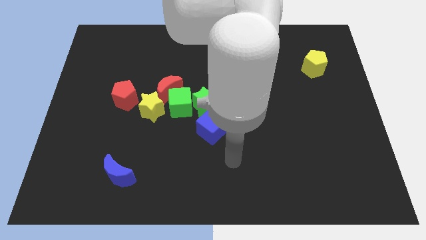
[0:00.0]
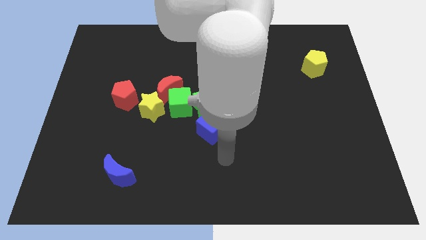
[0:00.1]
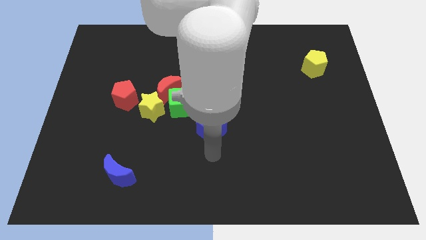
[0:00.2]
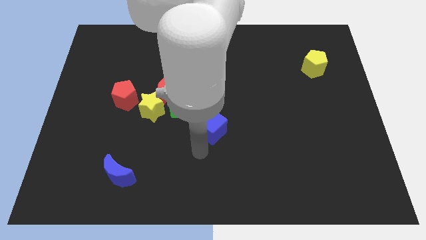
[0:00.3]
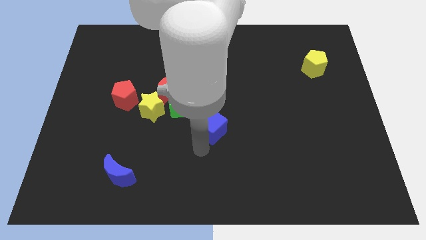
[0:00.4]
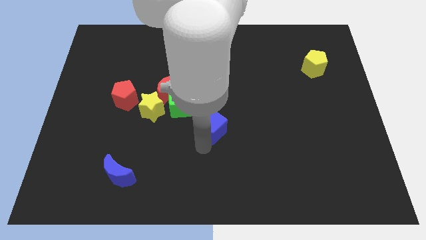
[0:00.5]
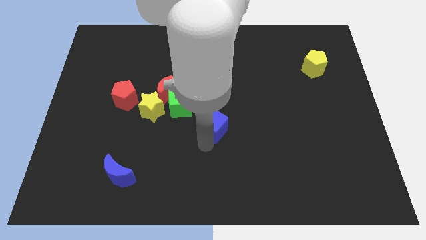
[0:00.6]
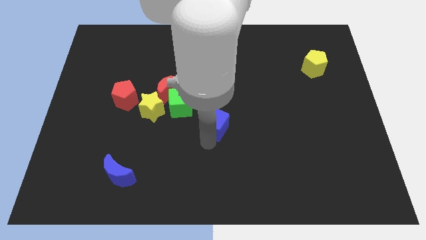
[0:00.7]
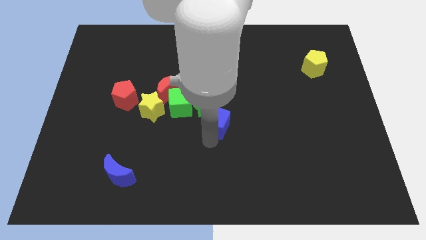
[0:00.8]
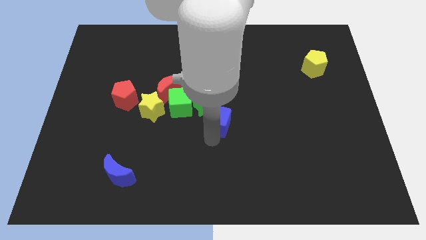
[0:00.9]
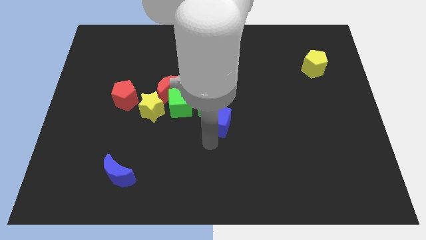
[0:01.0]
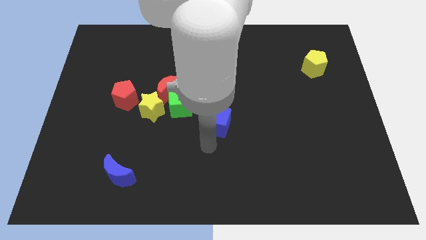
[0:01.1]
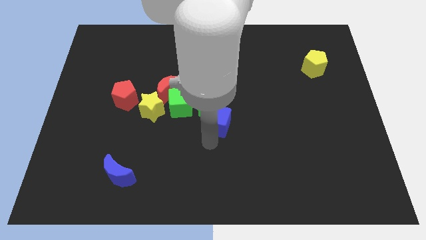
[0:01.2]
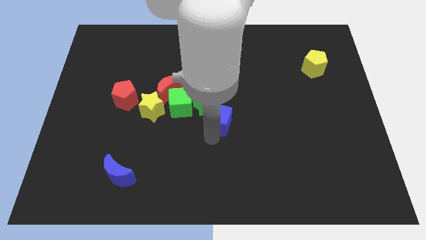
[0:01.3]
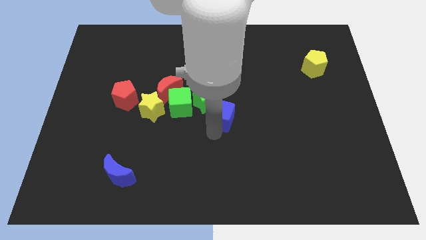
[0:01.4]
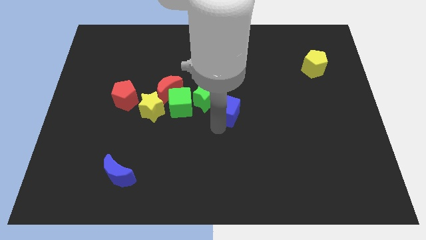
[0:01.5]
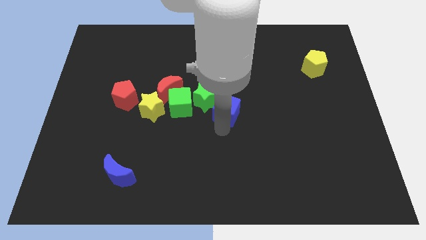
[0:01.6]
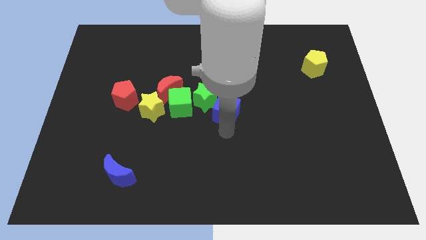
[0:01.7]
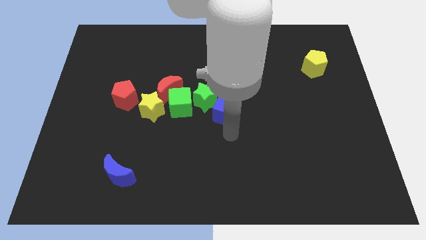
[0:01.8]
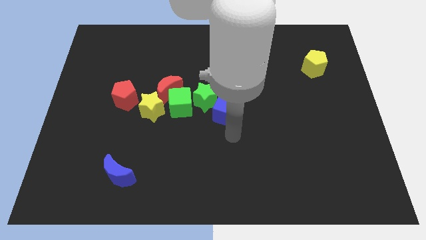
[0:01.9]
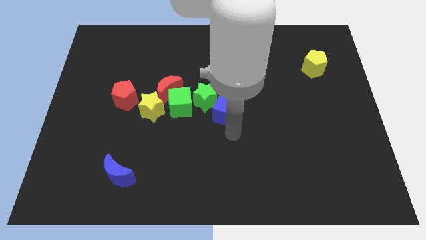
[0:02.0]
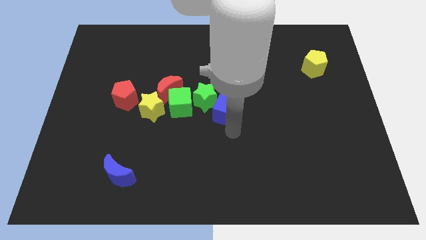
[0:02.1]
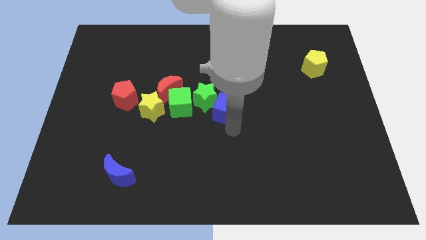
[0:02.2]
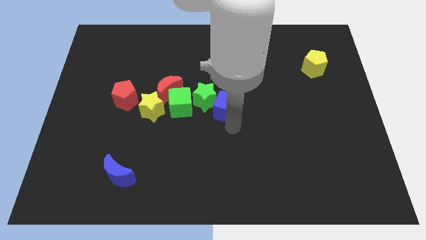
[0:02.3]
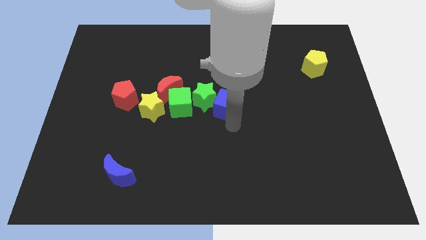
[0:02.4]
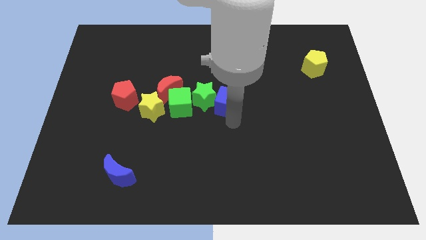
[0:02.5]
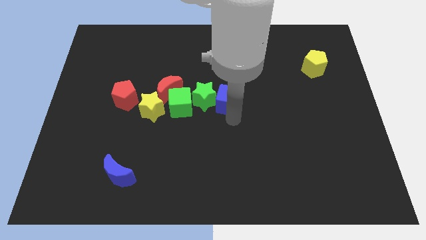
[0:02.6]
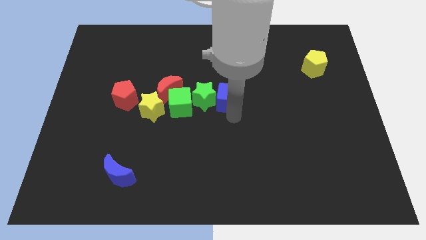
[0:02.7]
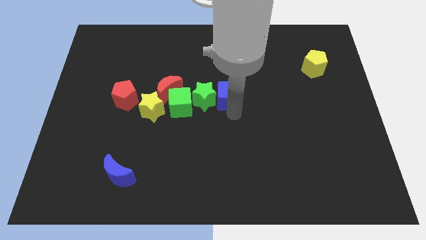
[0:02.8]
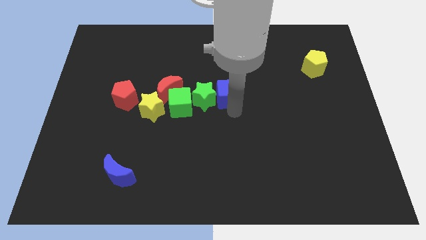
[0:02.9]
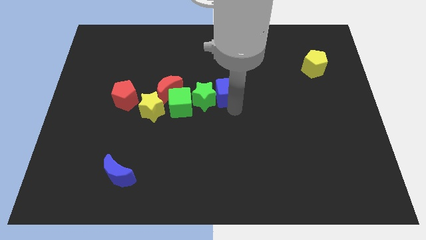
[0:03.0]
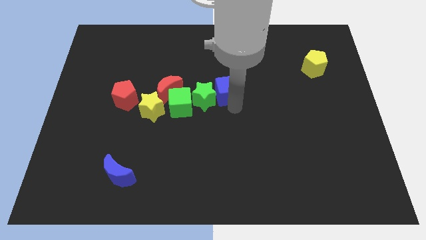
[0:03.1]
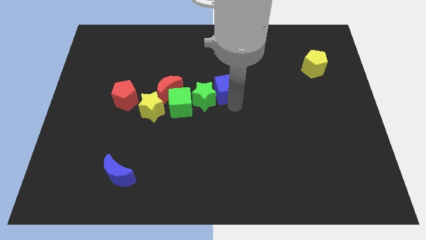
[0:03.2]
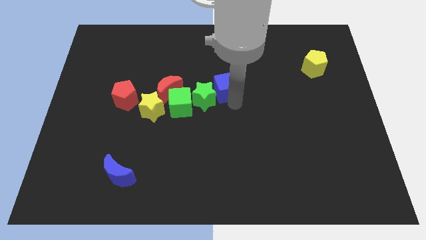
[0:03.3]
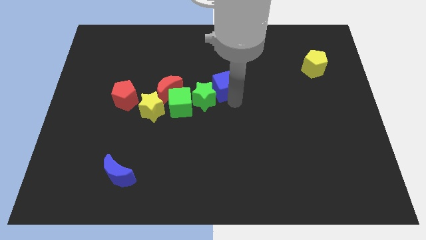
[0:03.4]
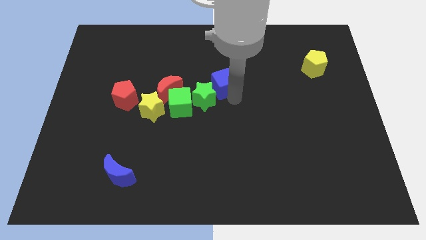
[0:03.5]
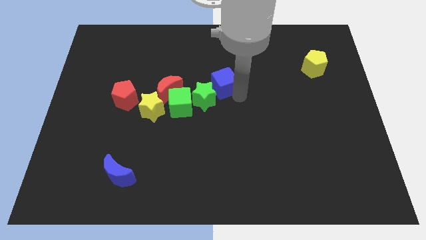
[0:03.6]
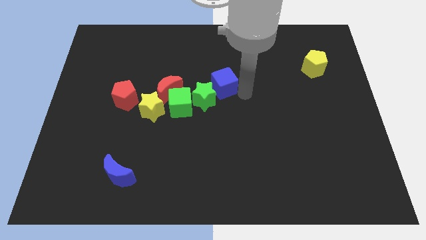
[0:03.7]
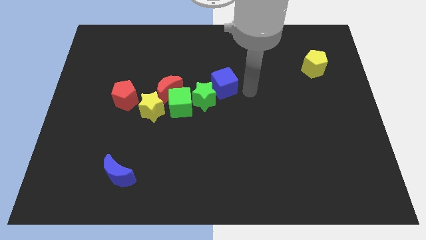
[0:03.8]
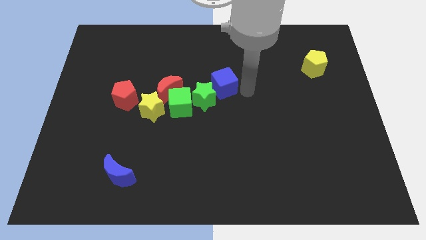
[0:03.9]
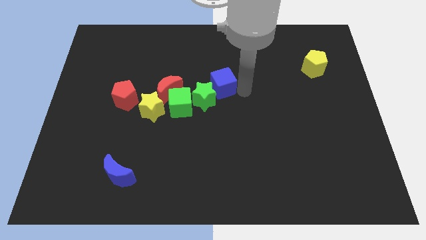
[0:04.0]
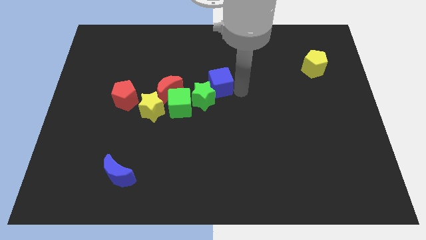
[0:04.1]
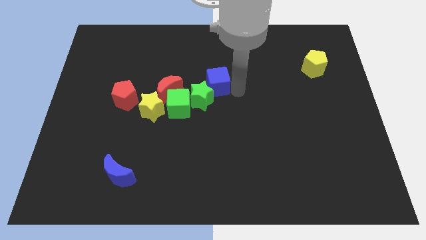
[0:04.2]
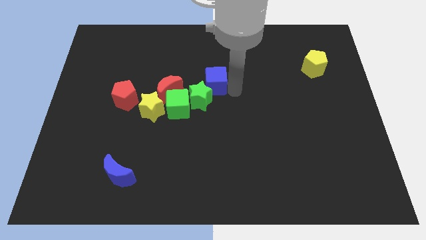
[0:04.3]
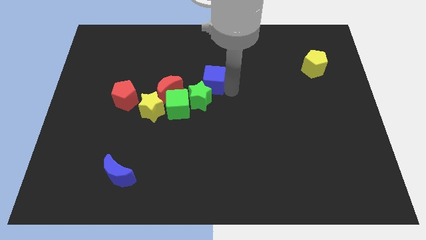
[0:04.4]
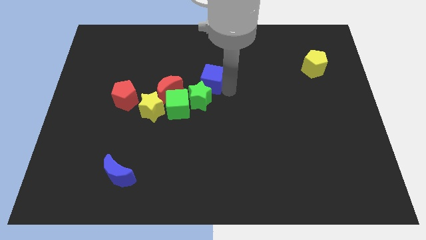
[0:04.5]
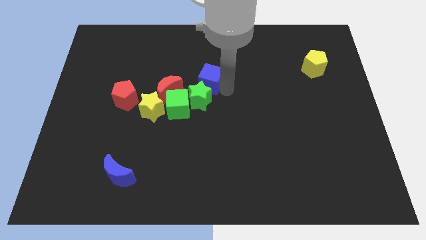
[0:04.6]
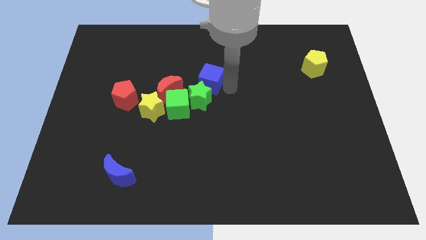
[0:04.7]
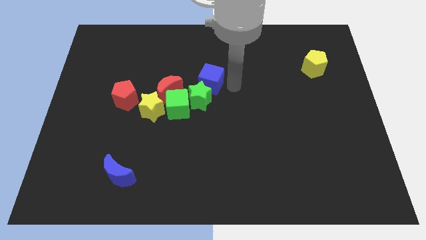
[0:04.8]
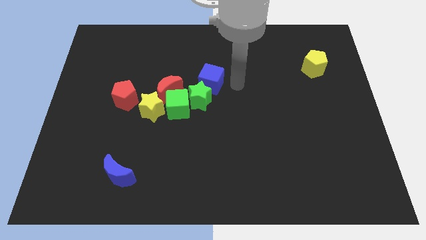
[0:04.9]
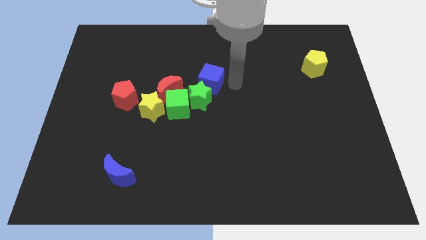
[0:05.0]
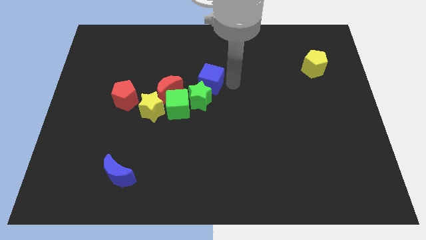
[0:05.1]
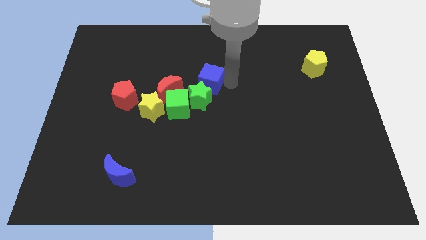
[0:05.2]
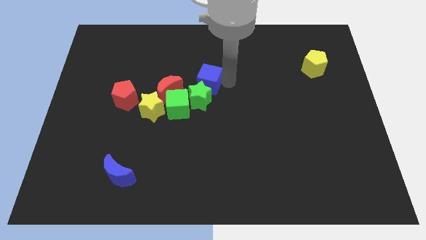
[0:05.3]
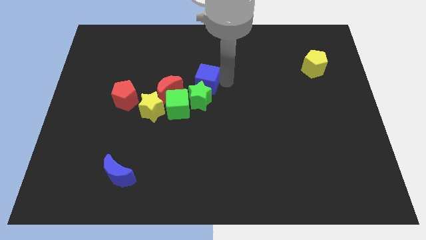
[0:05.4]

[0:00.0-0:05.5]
slightly slide the blue cube diagonally upwards and to the left

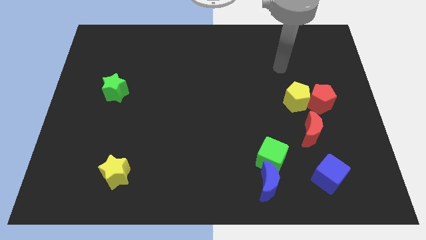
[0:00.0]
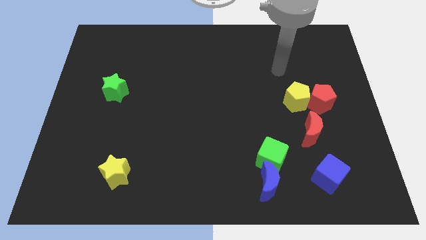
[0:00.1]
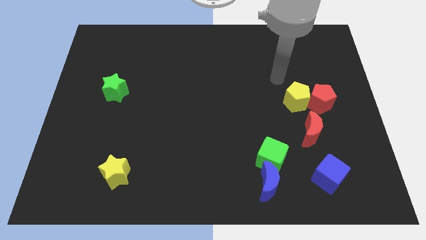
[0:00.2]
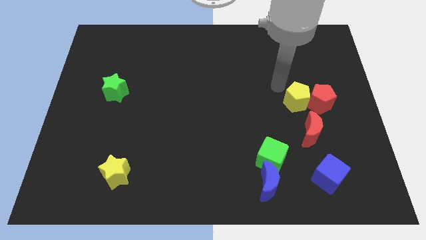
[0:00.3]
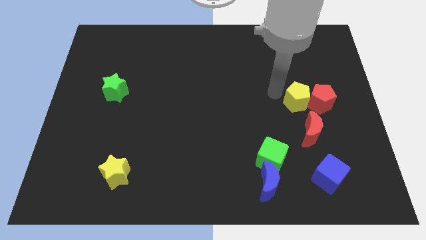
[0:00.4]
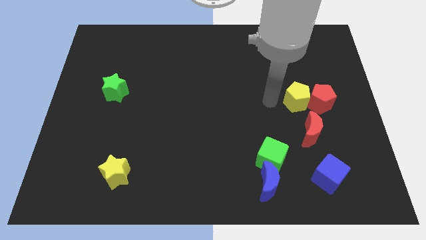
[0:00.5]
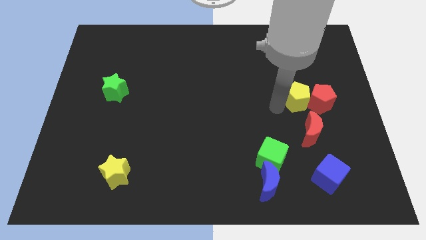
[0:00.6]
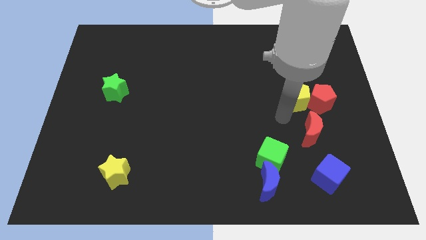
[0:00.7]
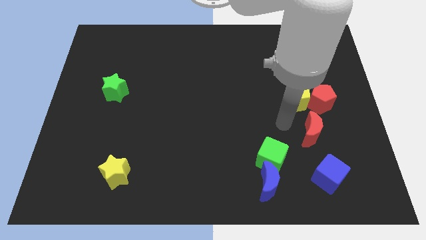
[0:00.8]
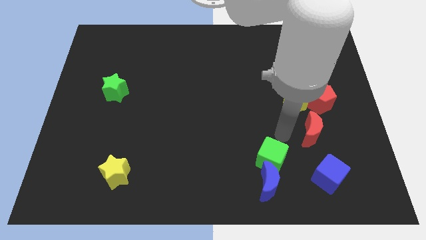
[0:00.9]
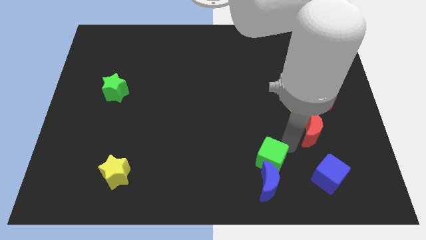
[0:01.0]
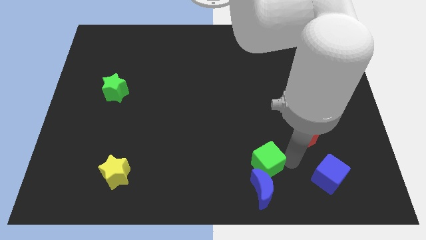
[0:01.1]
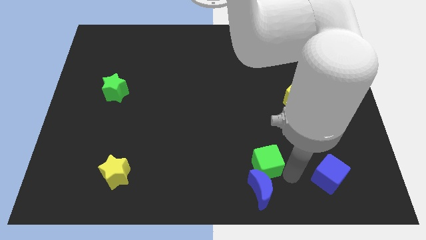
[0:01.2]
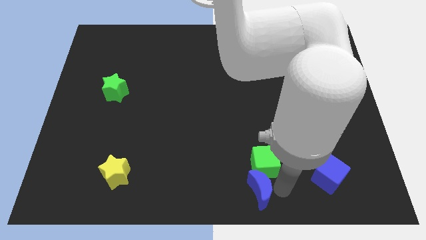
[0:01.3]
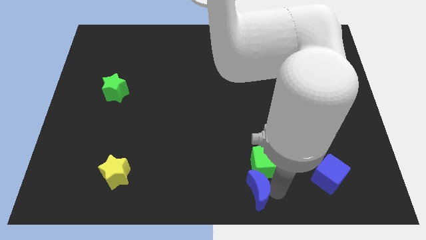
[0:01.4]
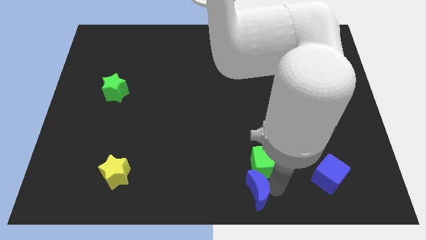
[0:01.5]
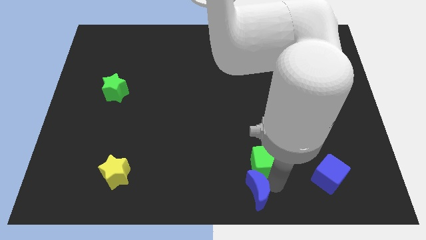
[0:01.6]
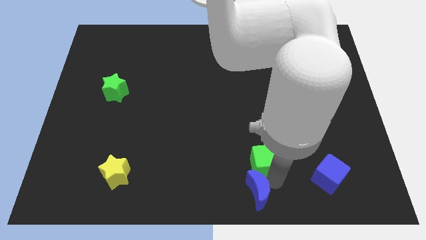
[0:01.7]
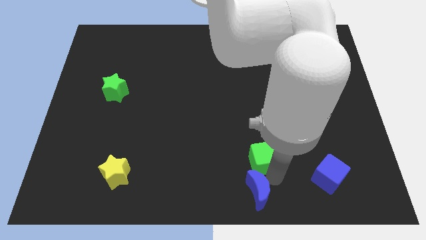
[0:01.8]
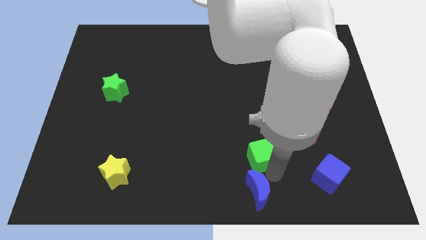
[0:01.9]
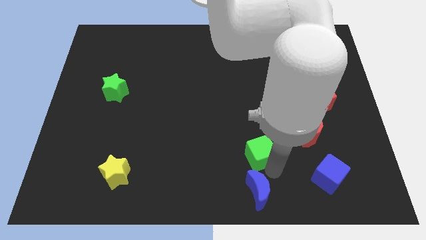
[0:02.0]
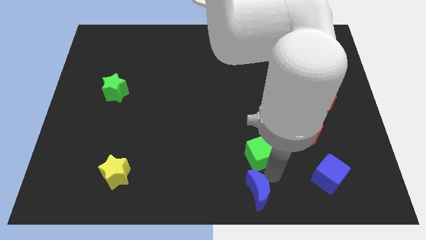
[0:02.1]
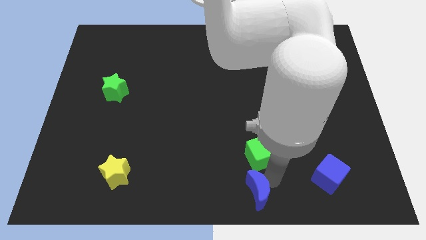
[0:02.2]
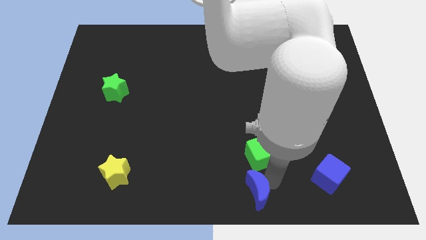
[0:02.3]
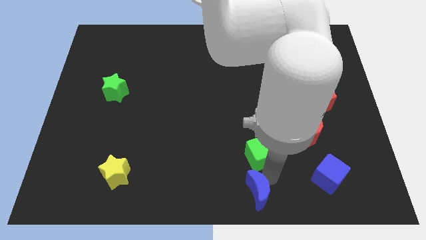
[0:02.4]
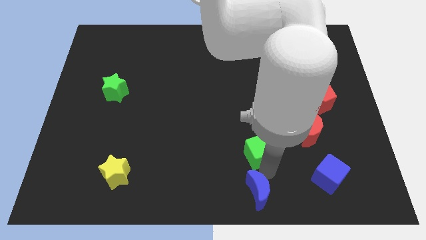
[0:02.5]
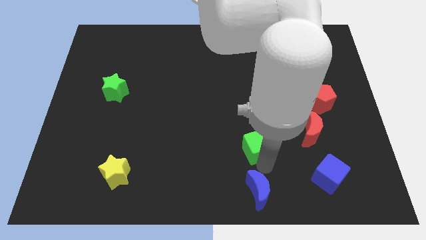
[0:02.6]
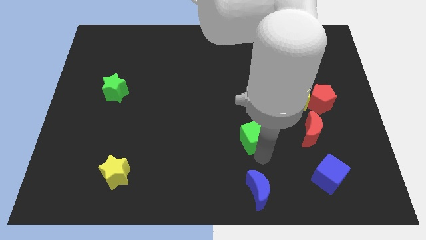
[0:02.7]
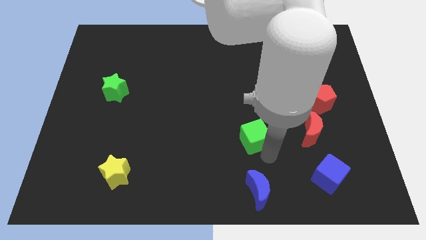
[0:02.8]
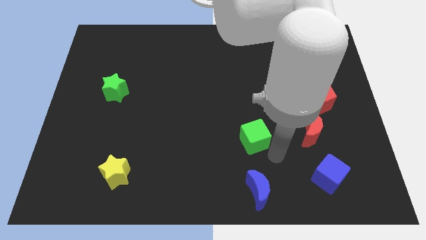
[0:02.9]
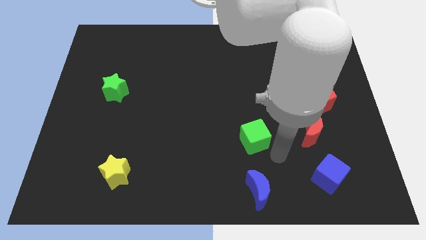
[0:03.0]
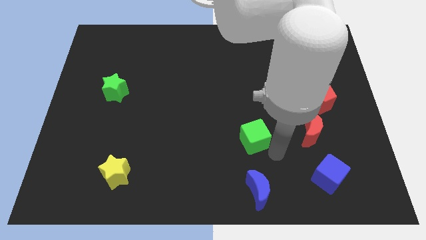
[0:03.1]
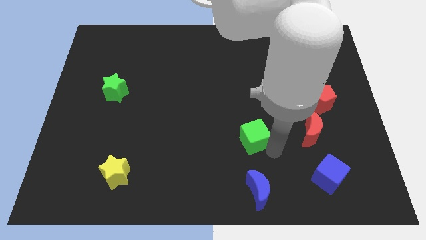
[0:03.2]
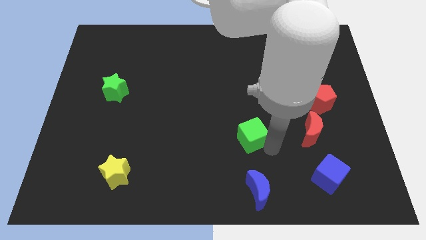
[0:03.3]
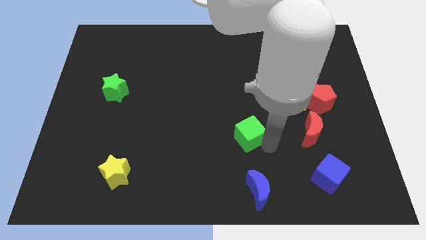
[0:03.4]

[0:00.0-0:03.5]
push the green cube up and then left somewhat
